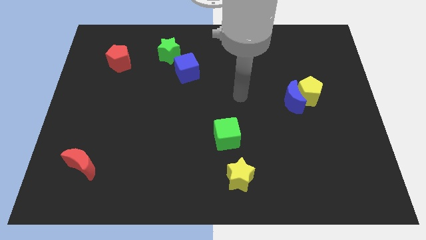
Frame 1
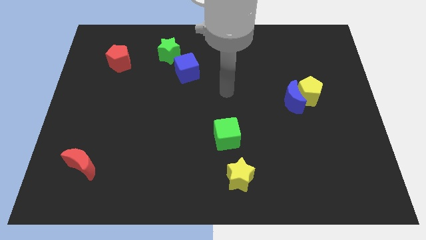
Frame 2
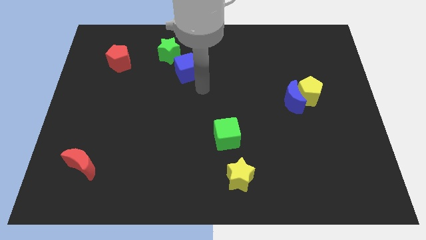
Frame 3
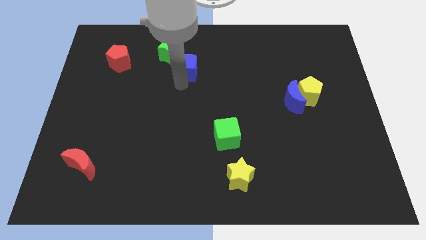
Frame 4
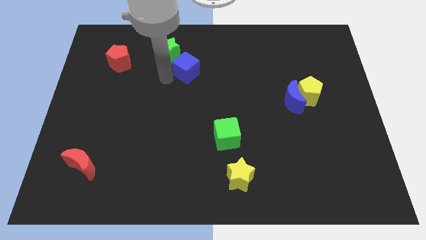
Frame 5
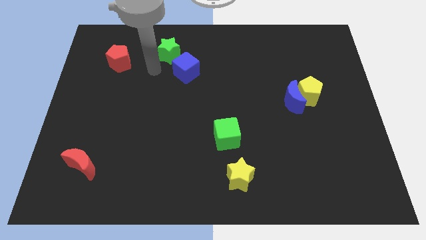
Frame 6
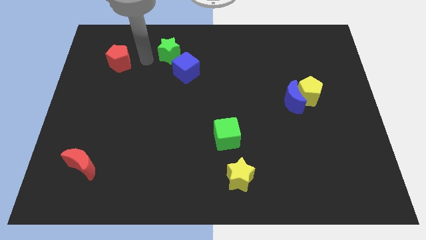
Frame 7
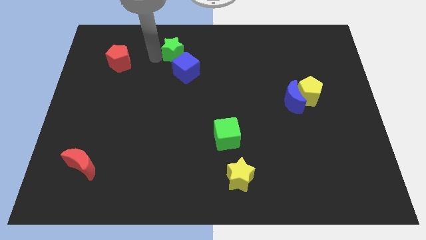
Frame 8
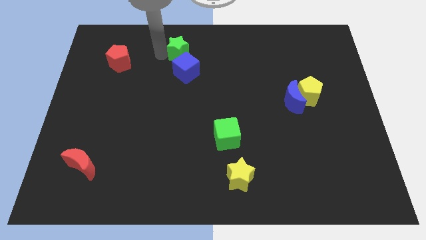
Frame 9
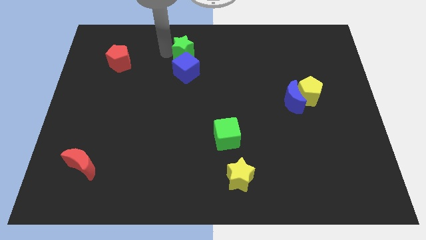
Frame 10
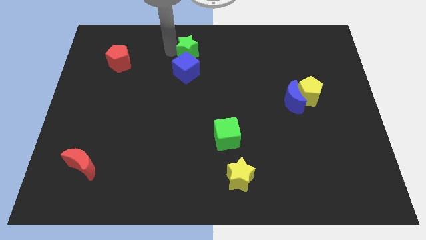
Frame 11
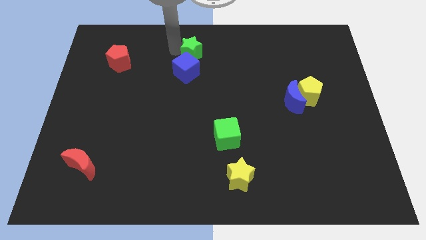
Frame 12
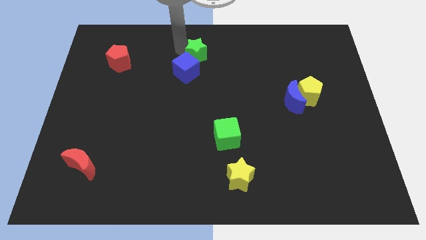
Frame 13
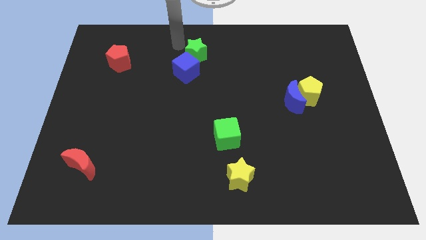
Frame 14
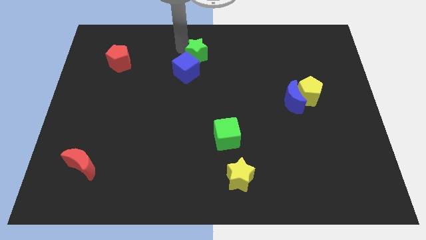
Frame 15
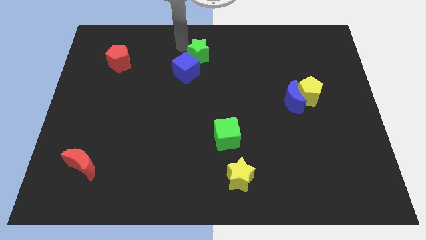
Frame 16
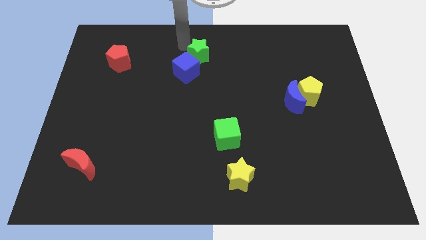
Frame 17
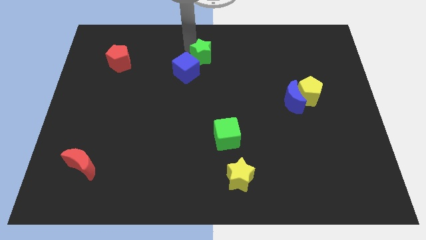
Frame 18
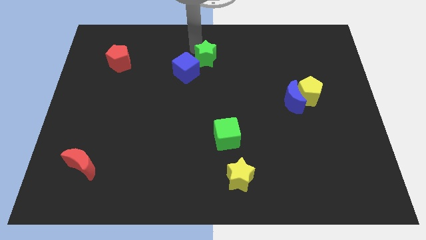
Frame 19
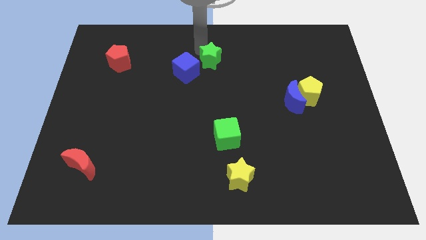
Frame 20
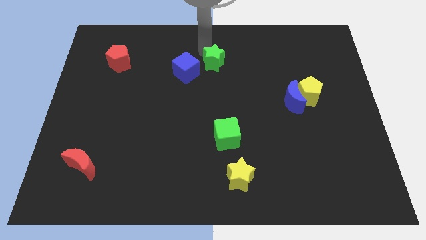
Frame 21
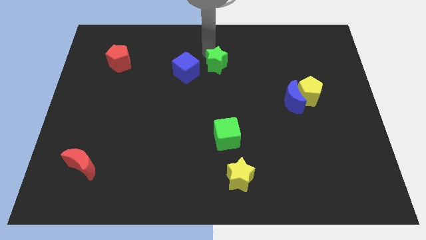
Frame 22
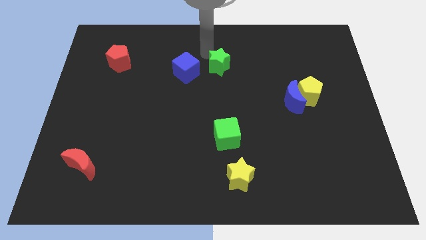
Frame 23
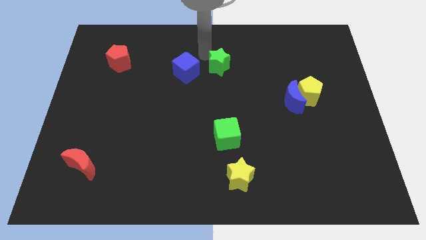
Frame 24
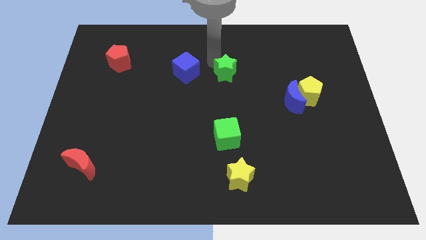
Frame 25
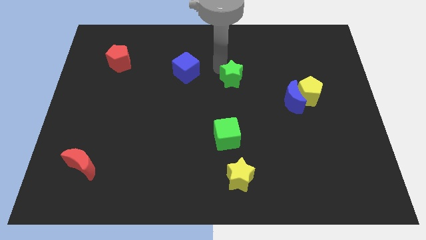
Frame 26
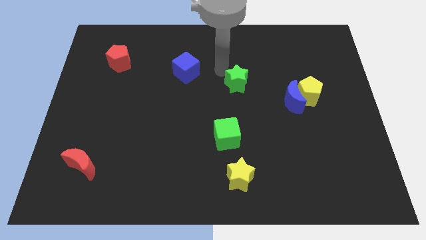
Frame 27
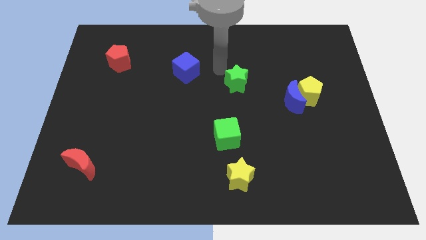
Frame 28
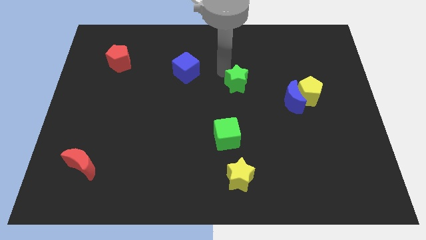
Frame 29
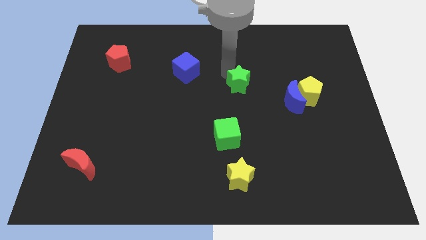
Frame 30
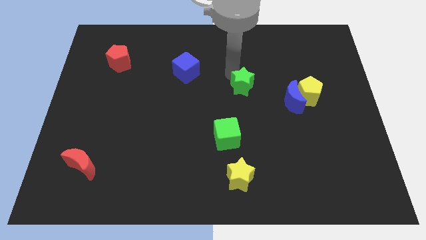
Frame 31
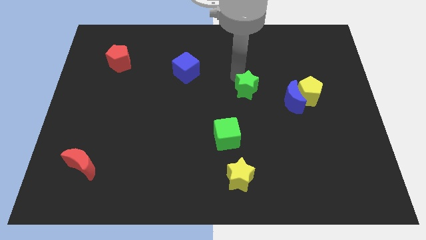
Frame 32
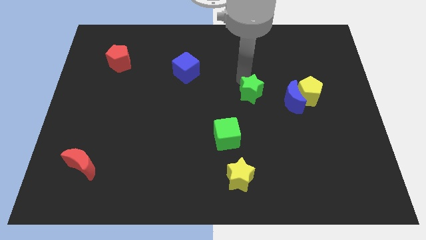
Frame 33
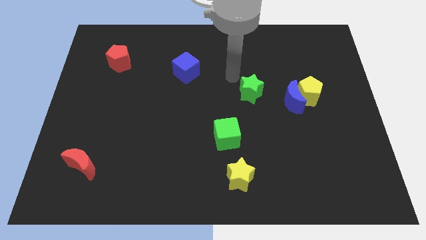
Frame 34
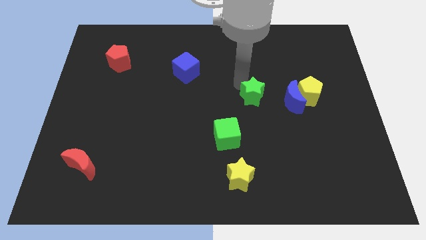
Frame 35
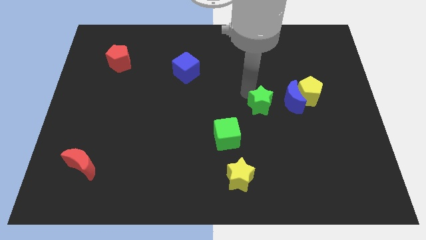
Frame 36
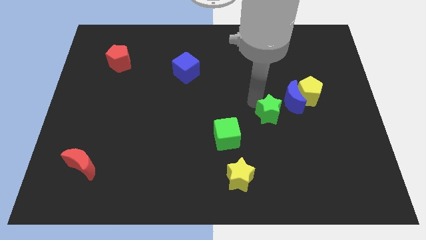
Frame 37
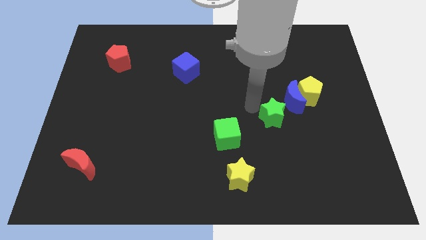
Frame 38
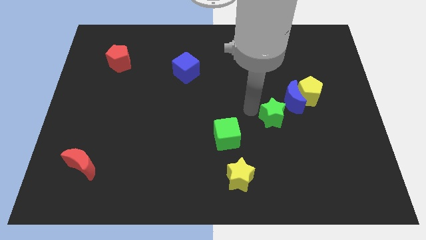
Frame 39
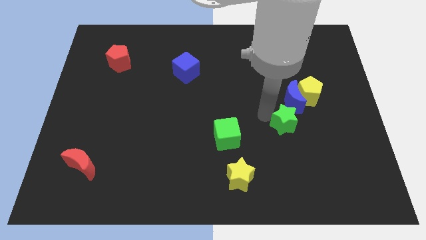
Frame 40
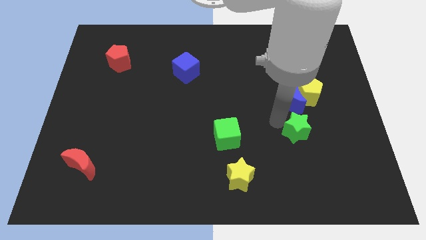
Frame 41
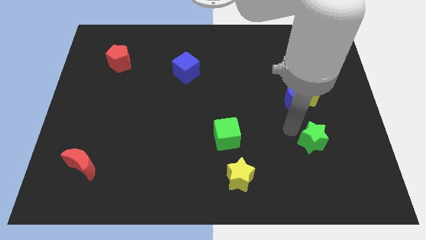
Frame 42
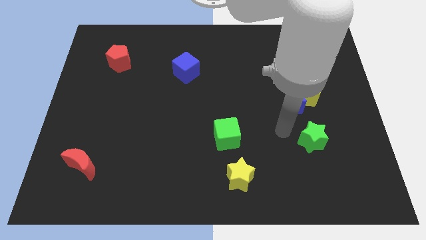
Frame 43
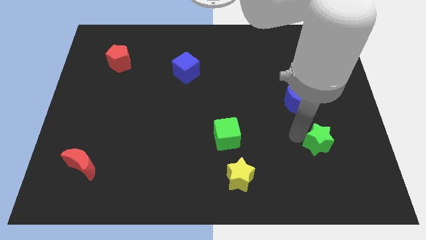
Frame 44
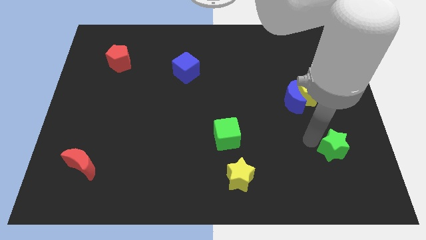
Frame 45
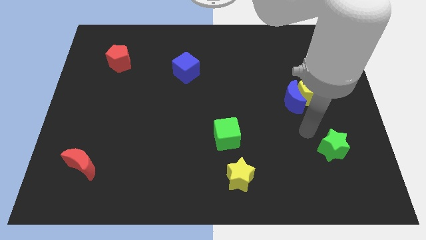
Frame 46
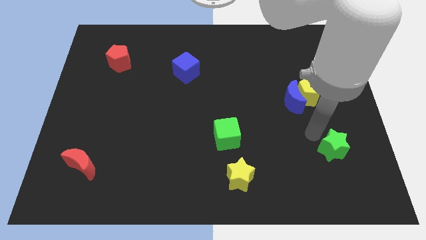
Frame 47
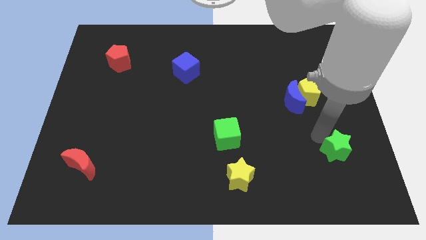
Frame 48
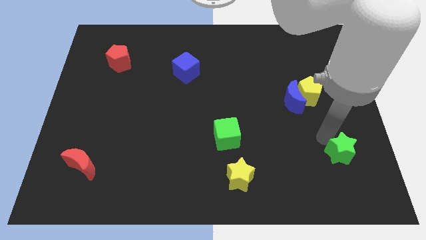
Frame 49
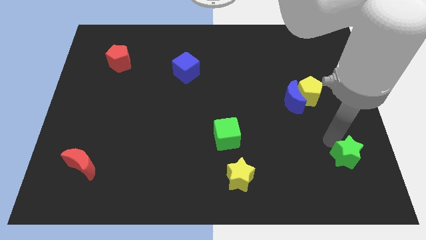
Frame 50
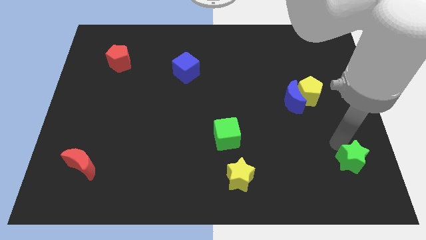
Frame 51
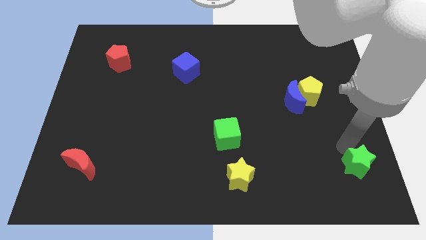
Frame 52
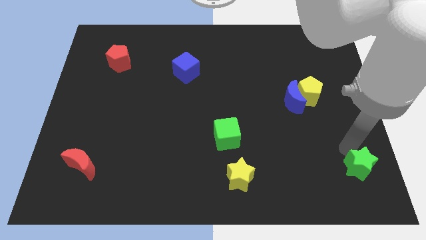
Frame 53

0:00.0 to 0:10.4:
put the green star to the bottom right of the board
